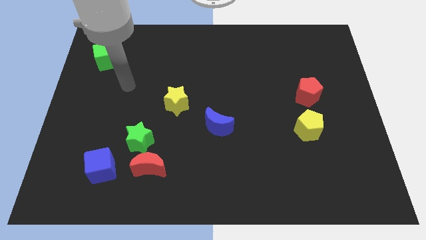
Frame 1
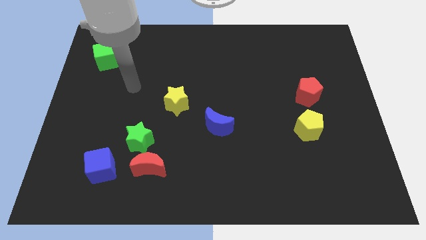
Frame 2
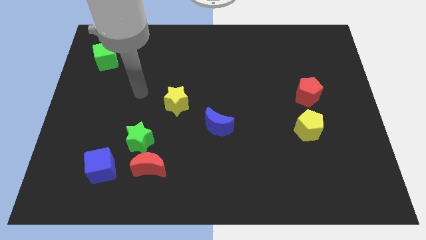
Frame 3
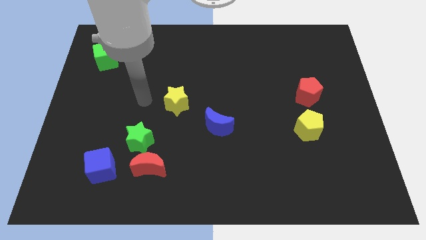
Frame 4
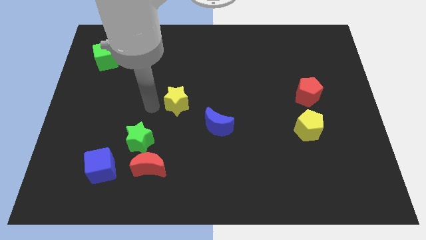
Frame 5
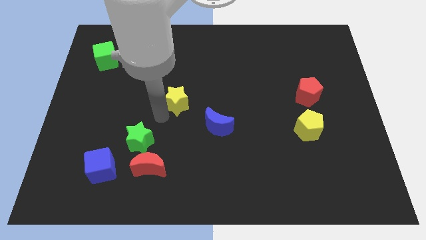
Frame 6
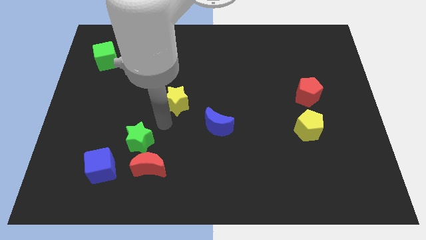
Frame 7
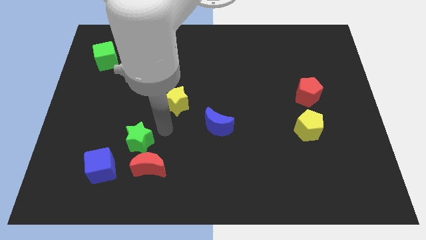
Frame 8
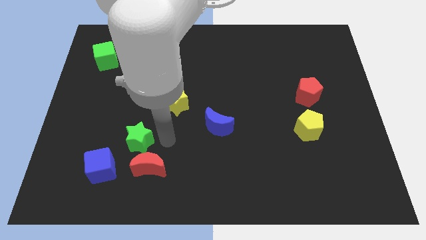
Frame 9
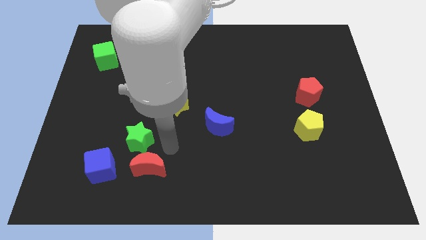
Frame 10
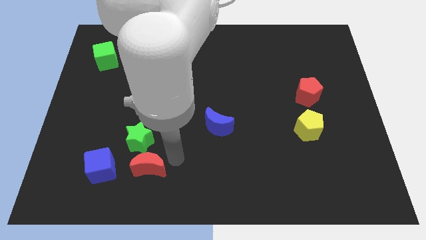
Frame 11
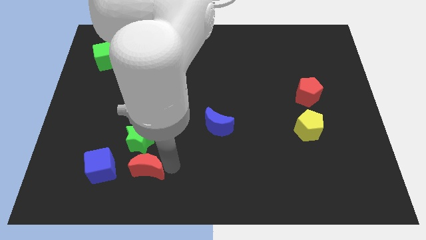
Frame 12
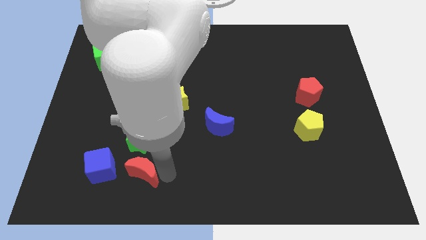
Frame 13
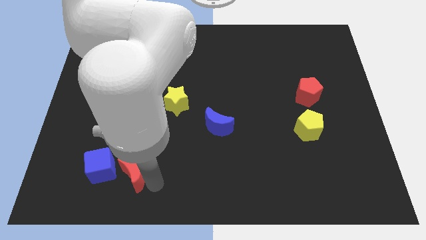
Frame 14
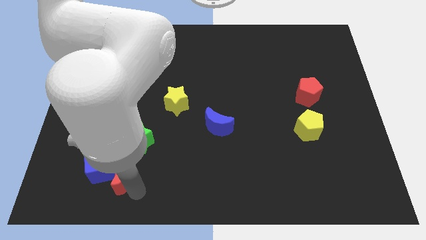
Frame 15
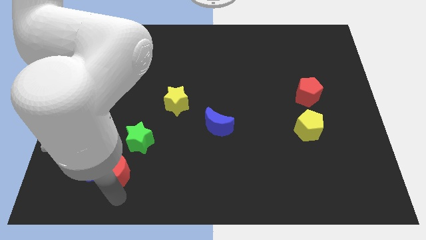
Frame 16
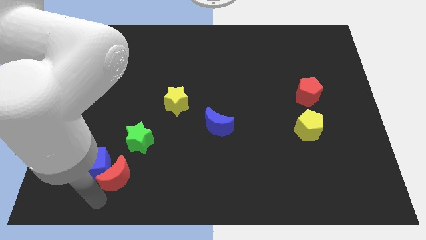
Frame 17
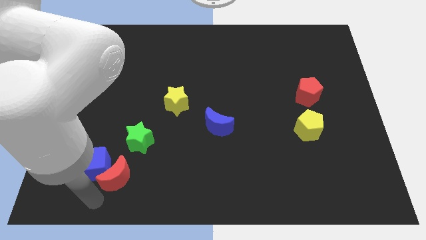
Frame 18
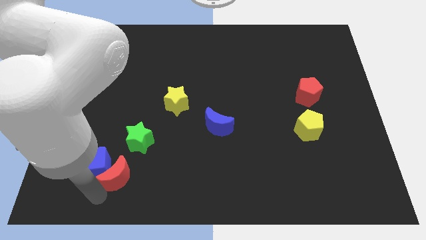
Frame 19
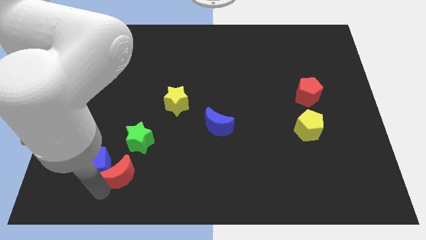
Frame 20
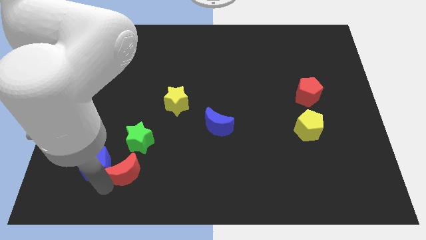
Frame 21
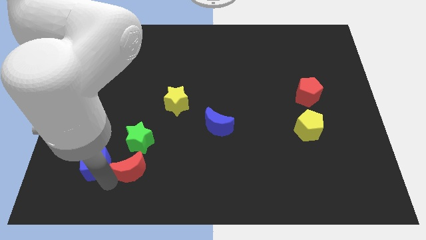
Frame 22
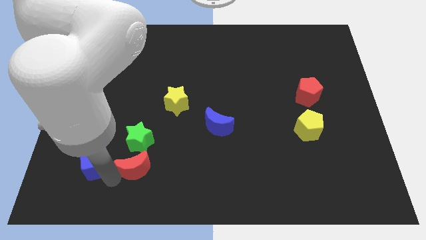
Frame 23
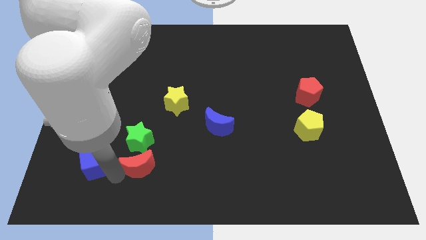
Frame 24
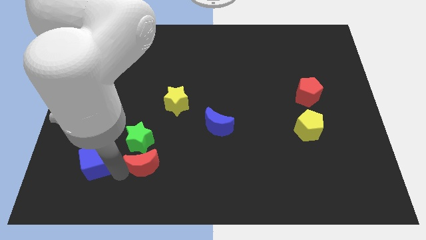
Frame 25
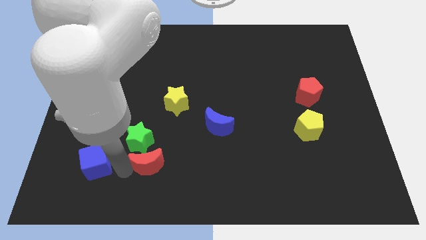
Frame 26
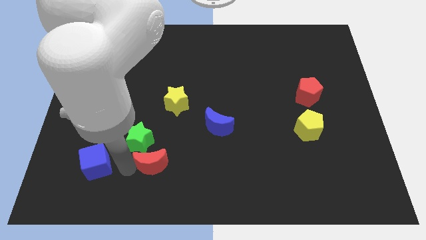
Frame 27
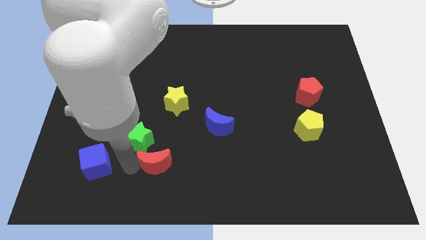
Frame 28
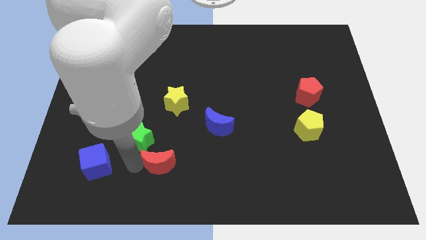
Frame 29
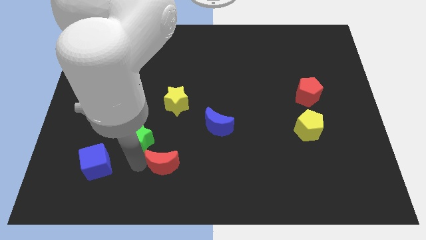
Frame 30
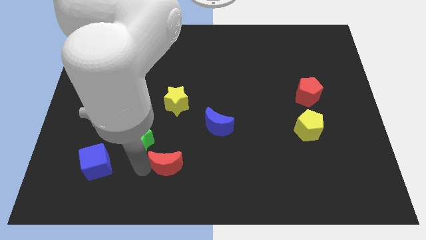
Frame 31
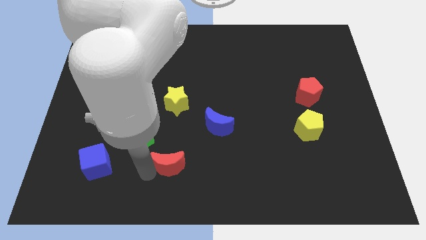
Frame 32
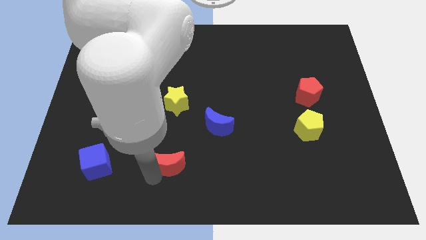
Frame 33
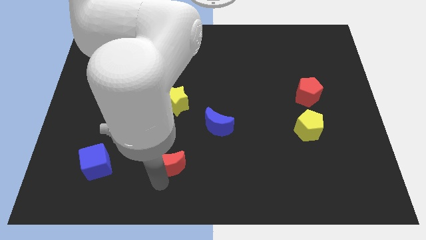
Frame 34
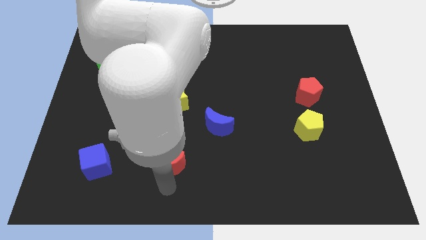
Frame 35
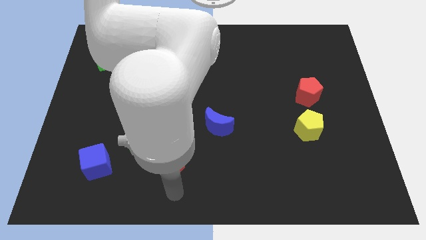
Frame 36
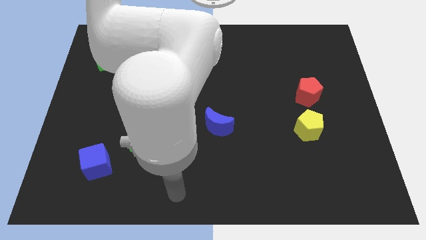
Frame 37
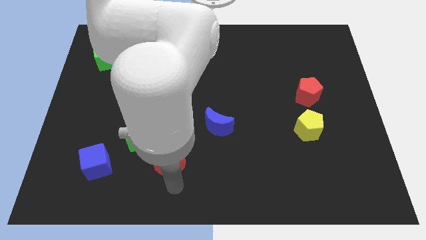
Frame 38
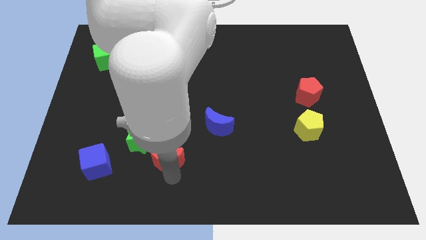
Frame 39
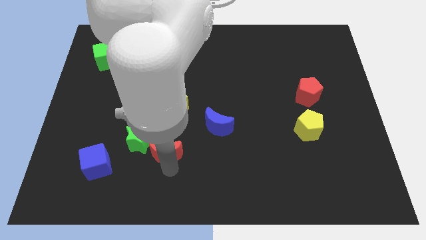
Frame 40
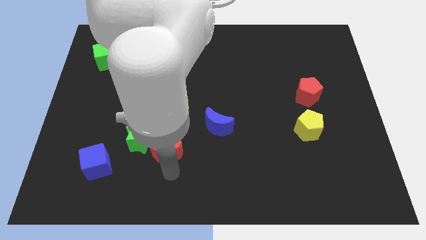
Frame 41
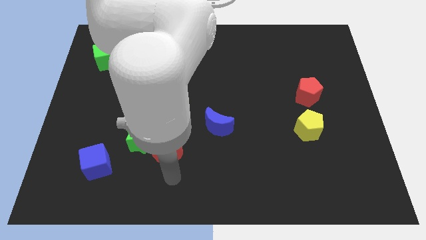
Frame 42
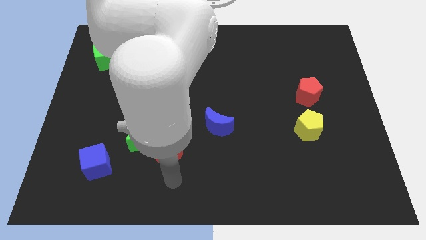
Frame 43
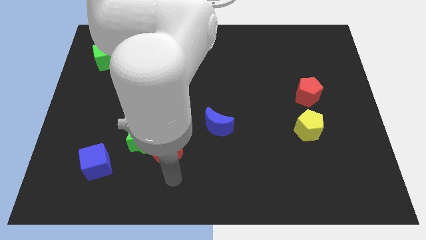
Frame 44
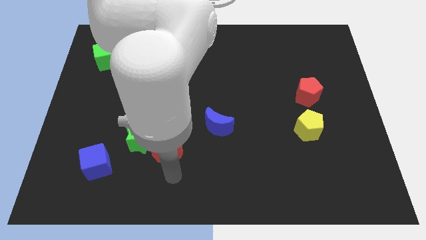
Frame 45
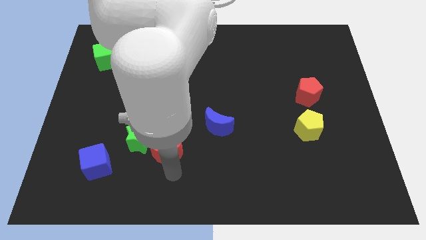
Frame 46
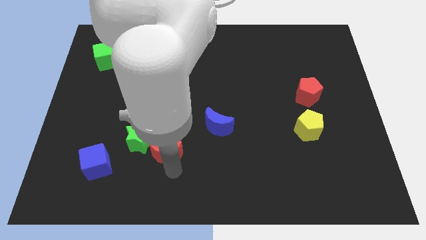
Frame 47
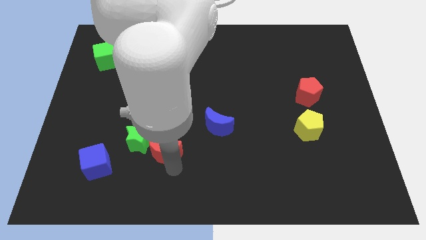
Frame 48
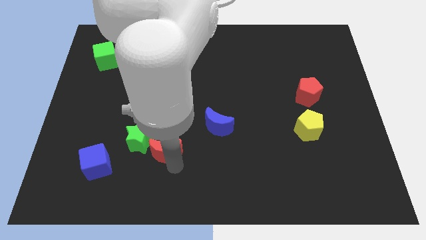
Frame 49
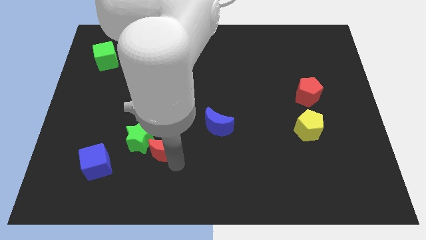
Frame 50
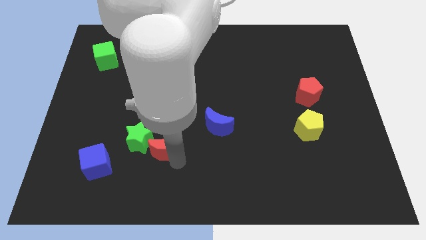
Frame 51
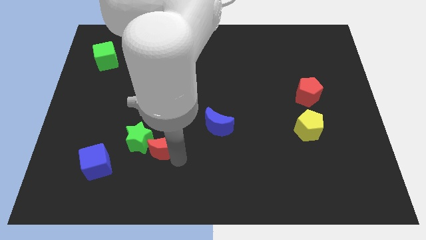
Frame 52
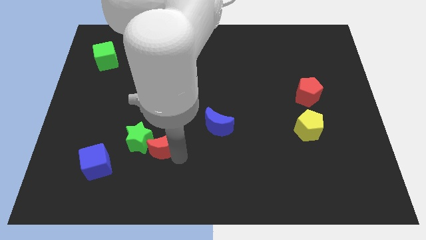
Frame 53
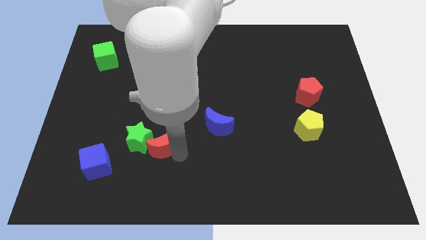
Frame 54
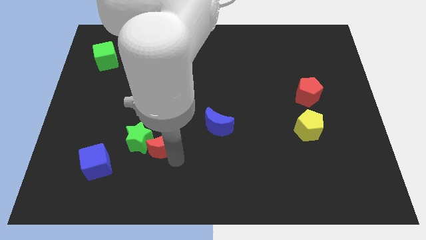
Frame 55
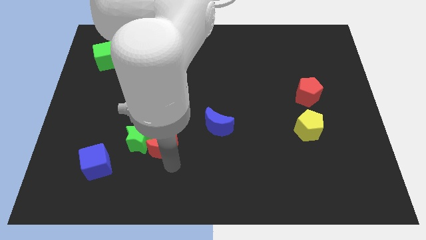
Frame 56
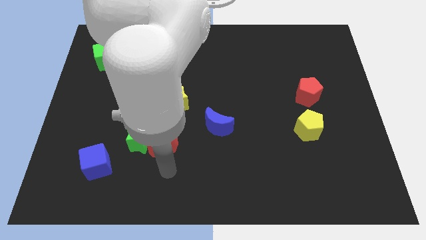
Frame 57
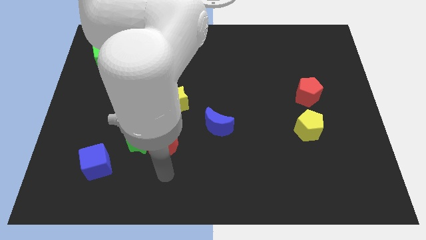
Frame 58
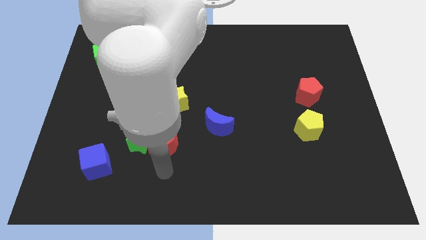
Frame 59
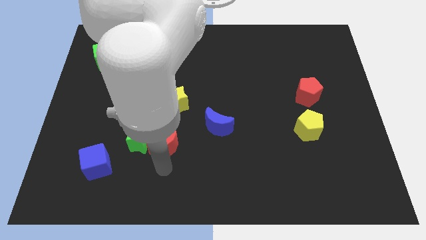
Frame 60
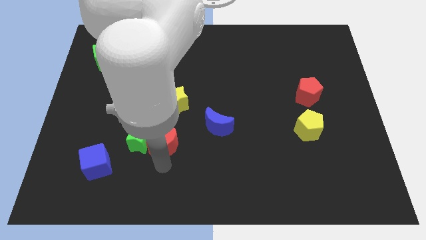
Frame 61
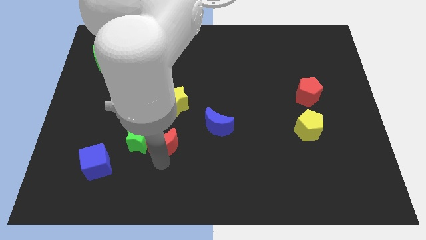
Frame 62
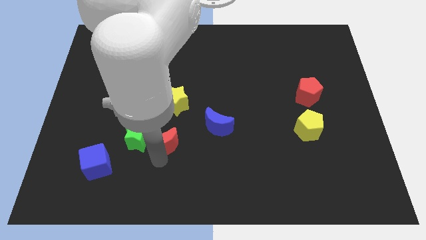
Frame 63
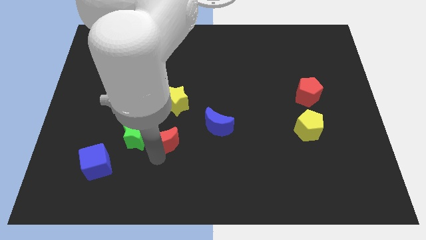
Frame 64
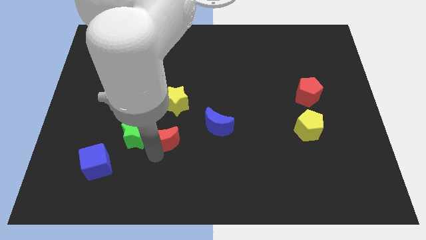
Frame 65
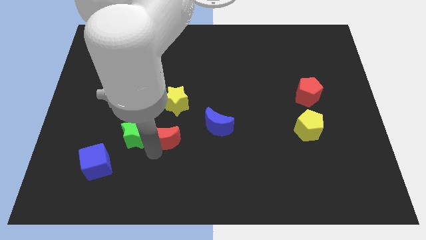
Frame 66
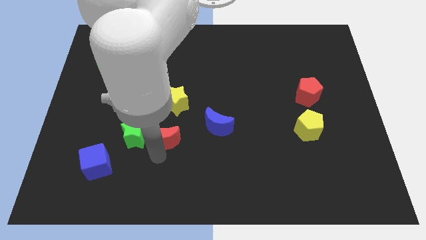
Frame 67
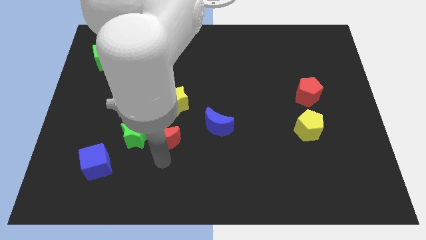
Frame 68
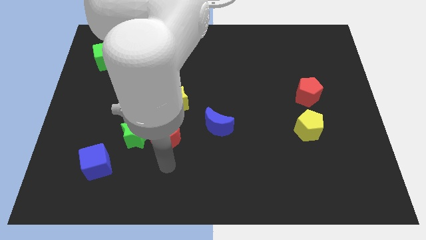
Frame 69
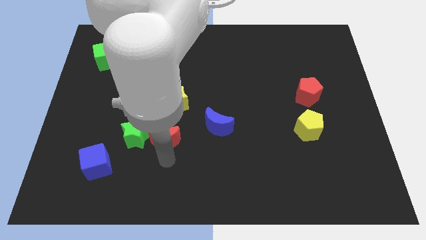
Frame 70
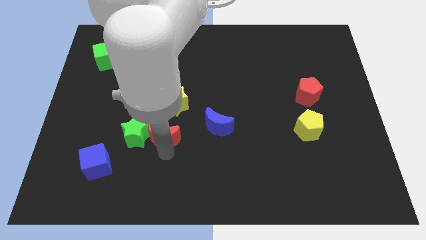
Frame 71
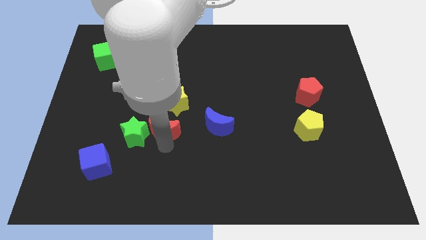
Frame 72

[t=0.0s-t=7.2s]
put the red moon to the top right of the green star
